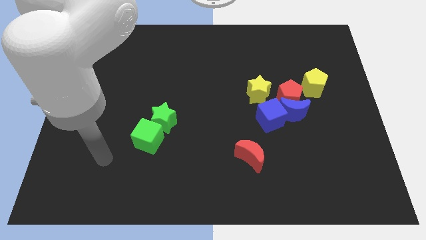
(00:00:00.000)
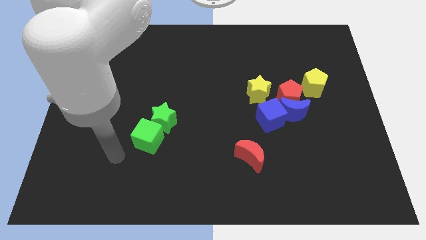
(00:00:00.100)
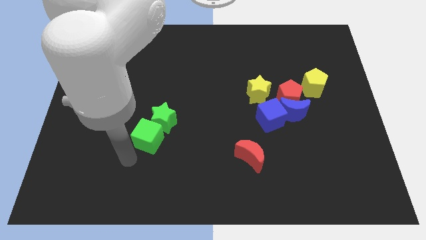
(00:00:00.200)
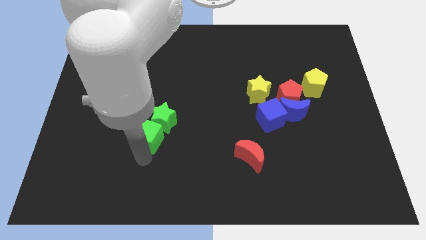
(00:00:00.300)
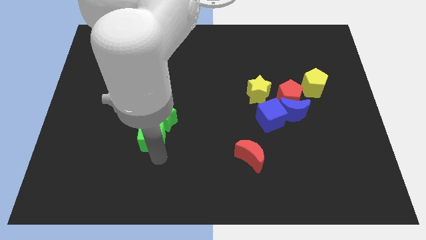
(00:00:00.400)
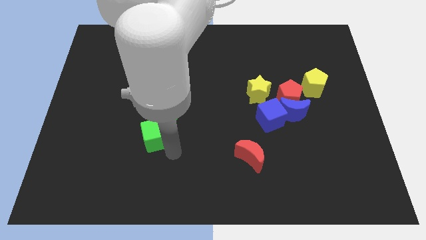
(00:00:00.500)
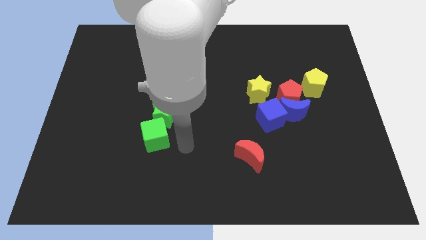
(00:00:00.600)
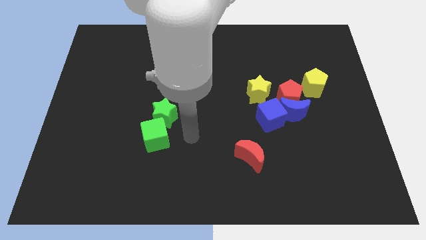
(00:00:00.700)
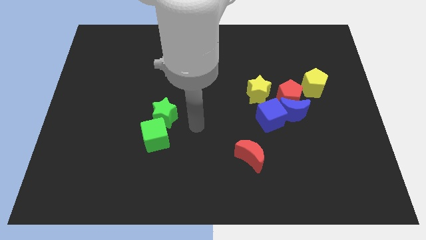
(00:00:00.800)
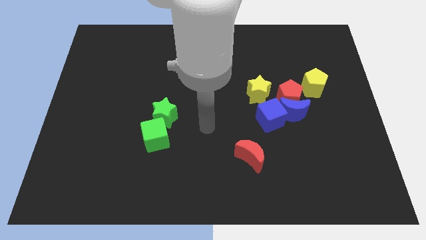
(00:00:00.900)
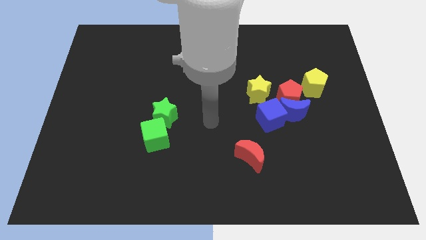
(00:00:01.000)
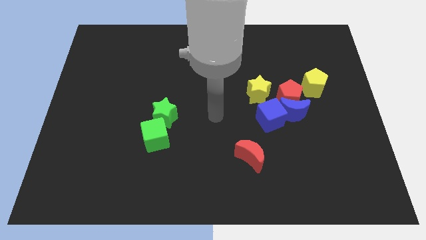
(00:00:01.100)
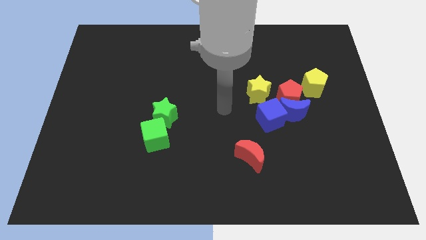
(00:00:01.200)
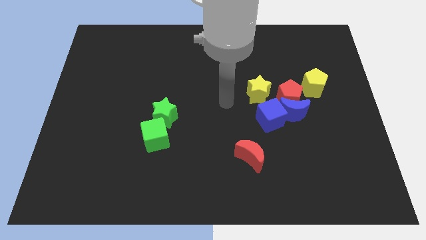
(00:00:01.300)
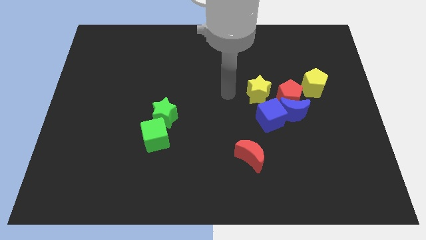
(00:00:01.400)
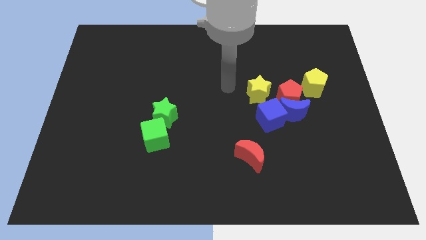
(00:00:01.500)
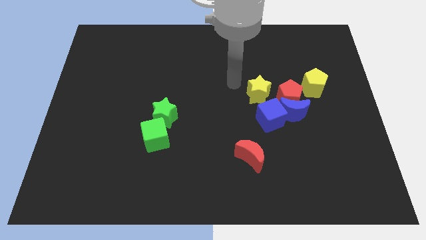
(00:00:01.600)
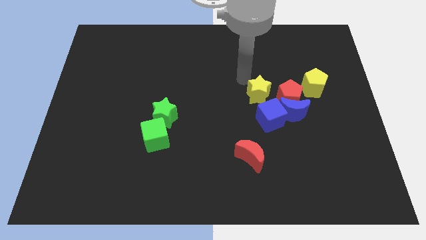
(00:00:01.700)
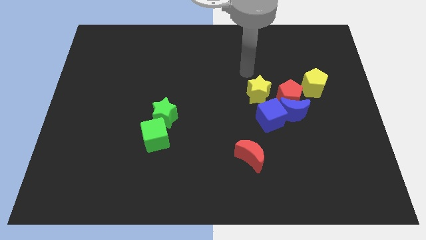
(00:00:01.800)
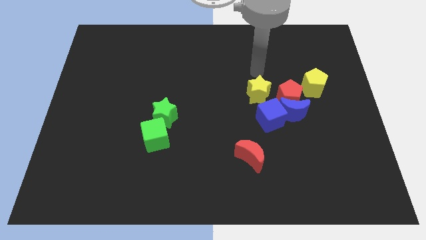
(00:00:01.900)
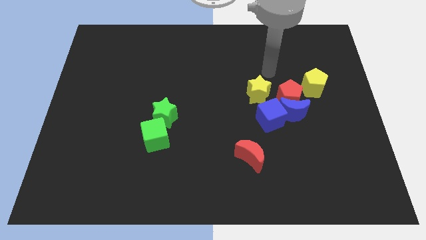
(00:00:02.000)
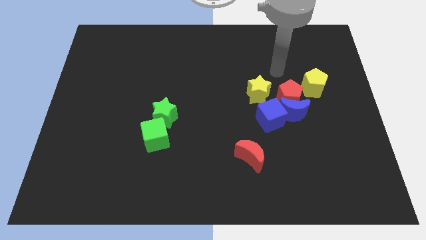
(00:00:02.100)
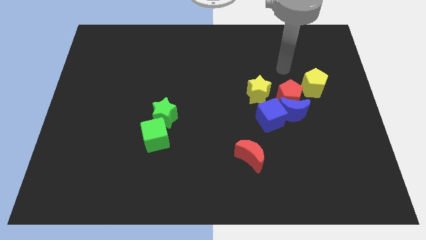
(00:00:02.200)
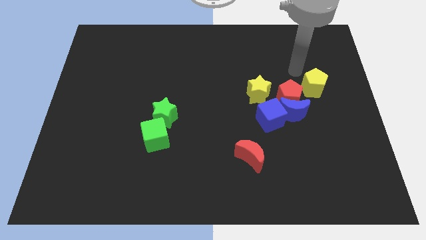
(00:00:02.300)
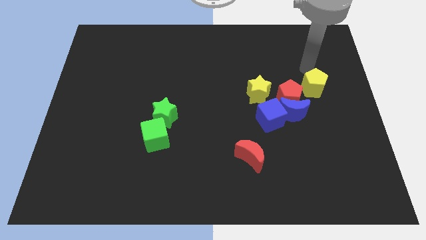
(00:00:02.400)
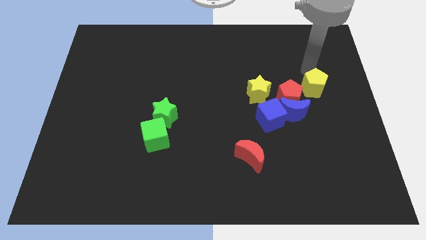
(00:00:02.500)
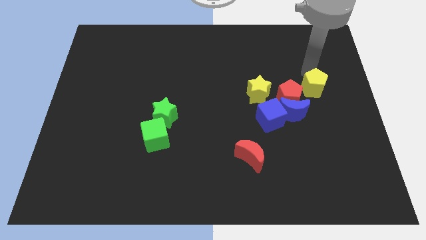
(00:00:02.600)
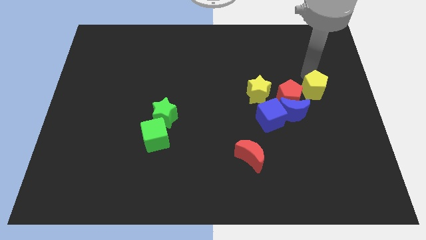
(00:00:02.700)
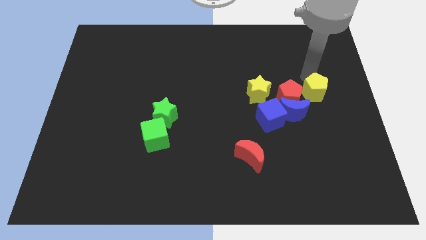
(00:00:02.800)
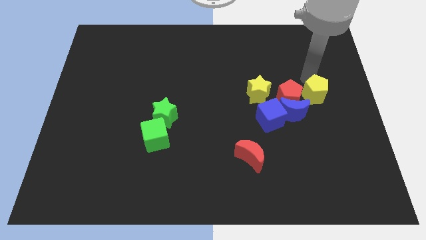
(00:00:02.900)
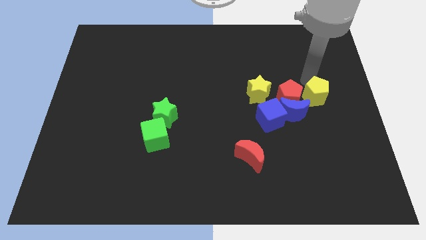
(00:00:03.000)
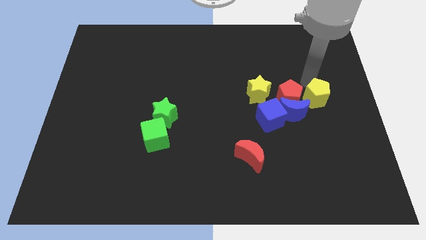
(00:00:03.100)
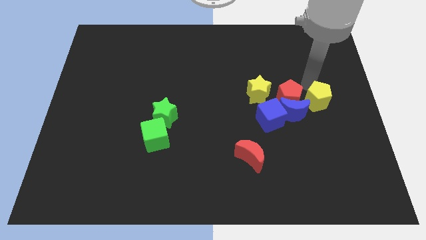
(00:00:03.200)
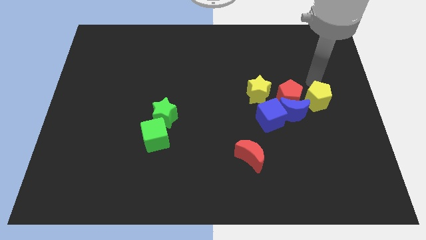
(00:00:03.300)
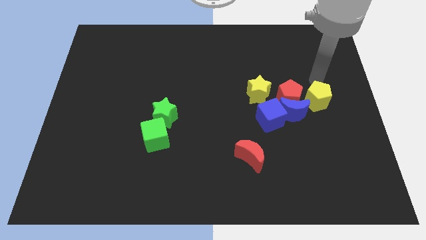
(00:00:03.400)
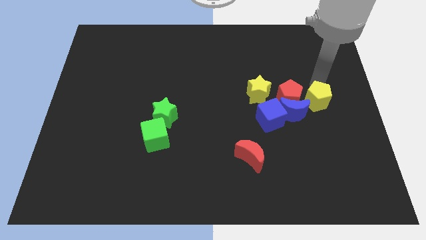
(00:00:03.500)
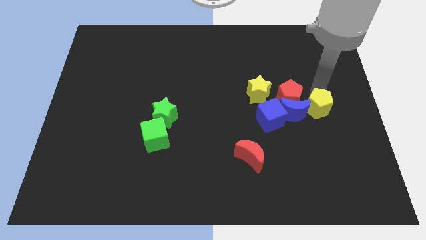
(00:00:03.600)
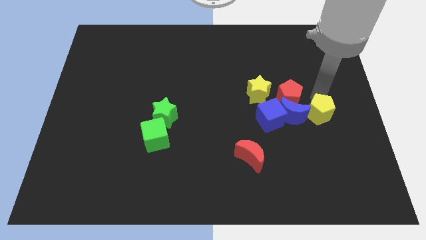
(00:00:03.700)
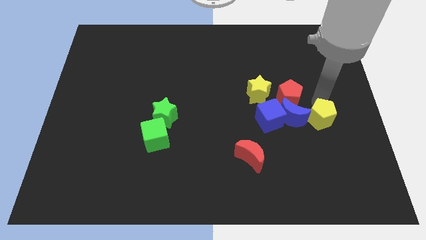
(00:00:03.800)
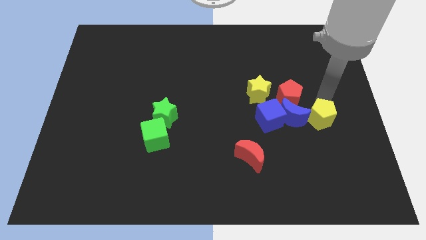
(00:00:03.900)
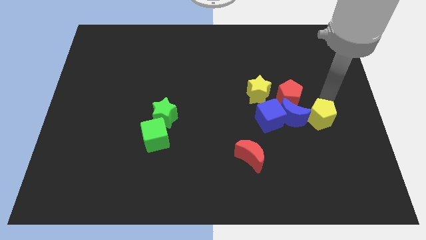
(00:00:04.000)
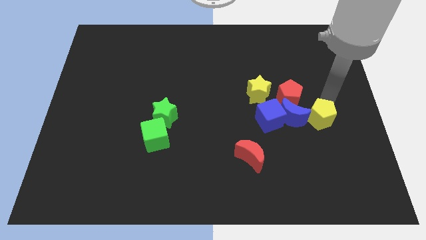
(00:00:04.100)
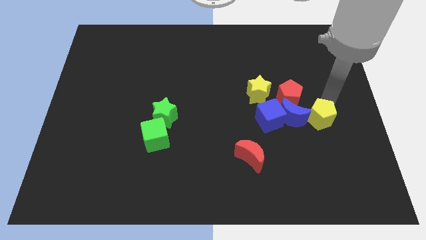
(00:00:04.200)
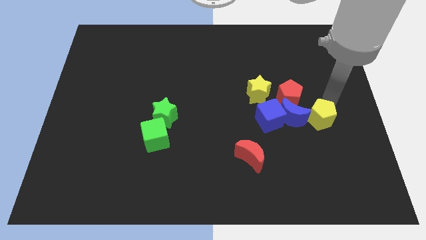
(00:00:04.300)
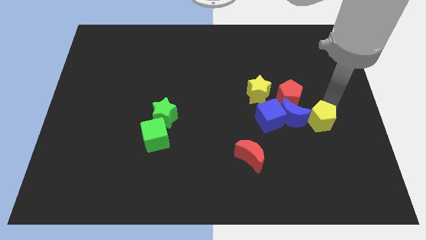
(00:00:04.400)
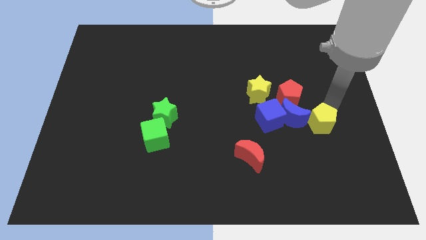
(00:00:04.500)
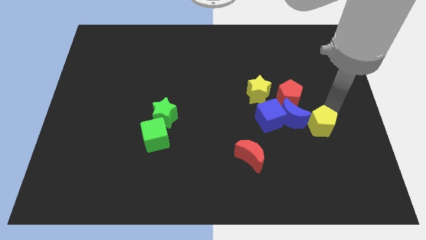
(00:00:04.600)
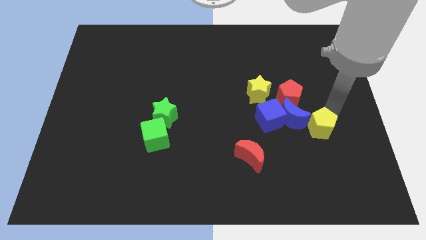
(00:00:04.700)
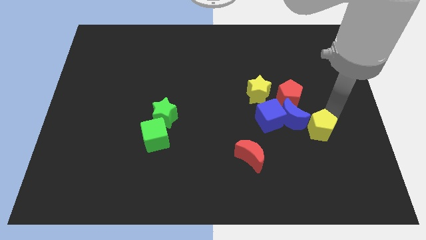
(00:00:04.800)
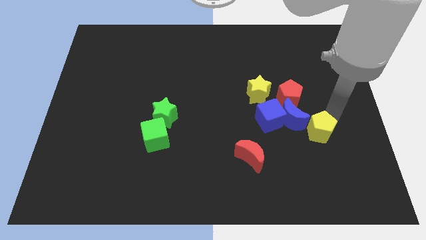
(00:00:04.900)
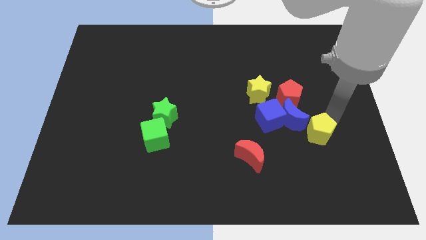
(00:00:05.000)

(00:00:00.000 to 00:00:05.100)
move the yellow pentagon a little bit diagonally downwards and left

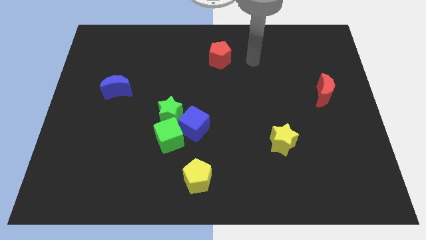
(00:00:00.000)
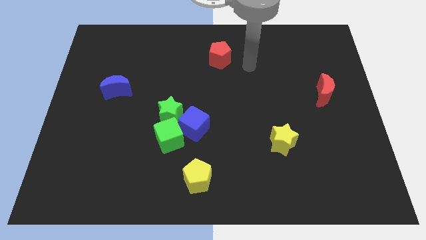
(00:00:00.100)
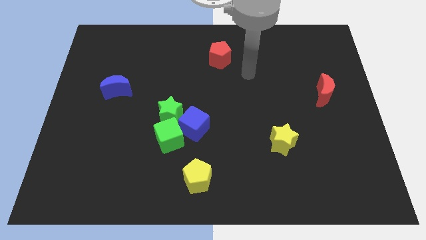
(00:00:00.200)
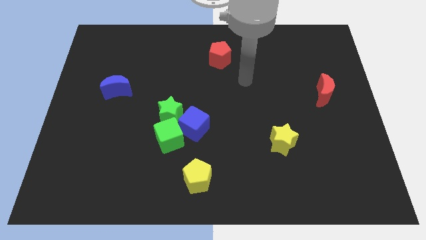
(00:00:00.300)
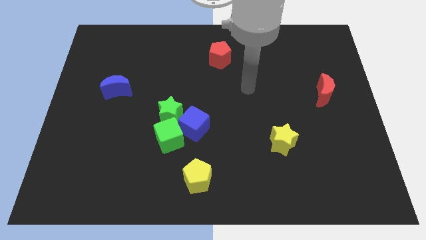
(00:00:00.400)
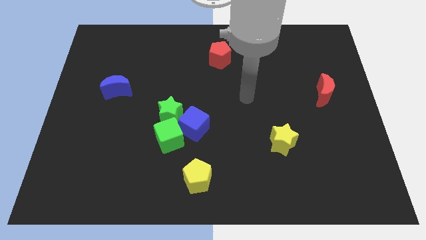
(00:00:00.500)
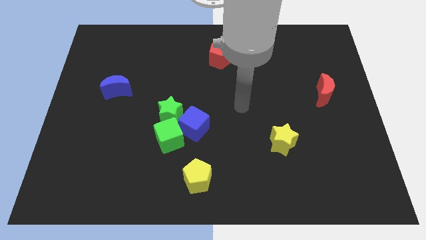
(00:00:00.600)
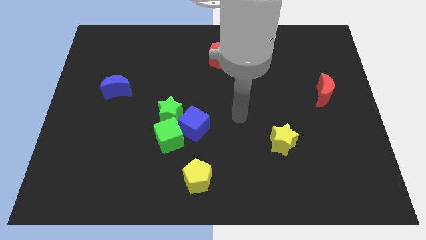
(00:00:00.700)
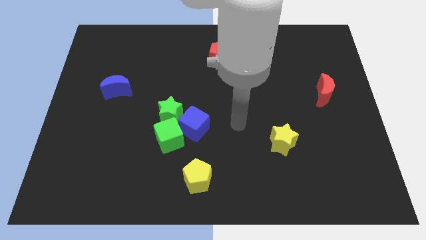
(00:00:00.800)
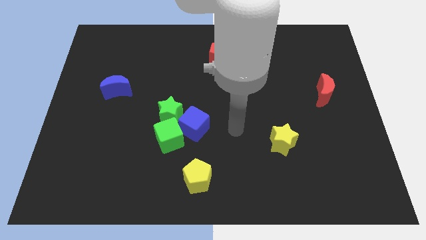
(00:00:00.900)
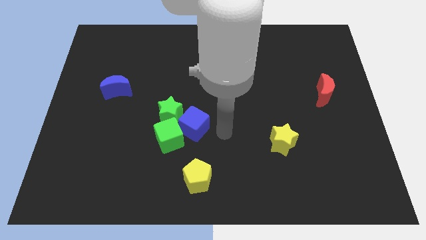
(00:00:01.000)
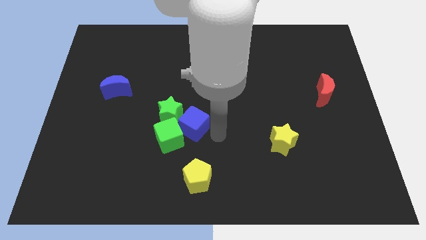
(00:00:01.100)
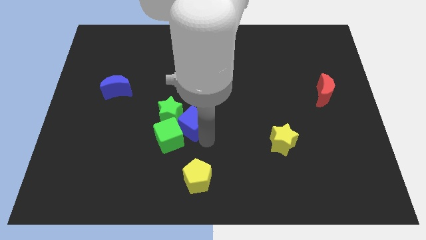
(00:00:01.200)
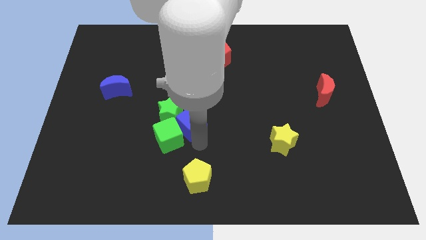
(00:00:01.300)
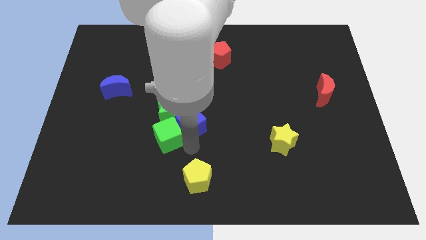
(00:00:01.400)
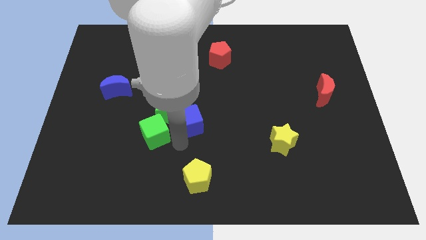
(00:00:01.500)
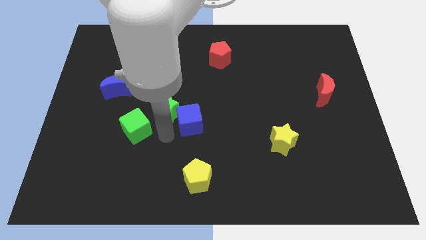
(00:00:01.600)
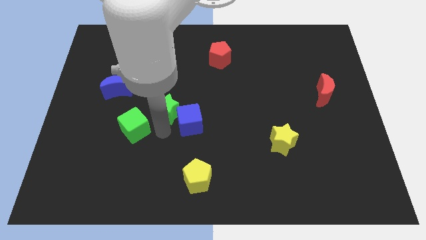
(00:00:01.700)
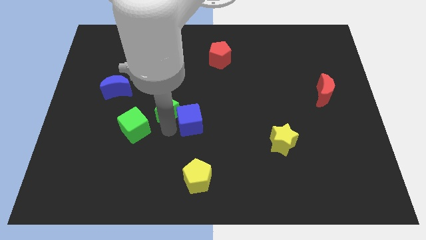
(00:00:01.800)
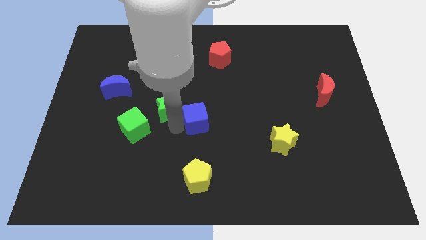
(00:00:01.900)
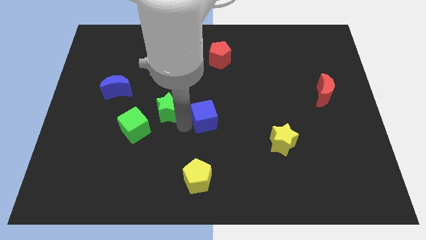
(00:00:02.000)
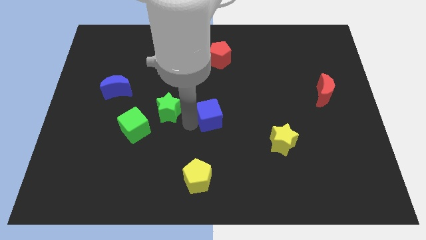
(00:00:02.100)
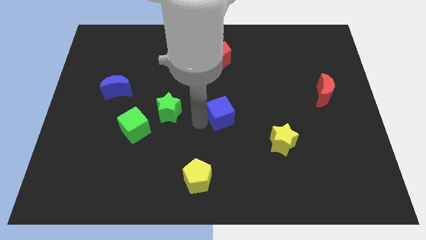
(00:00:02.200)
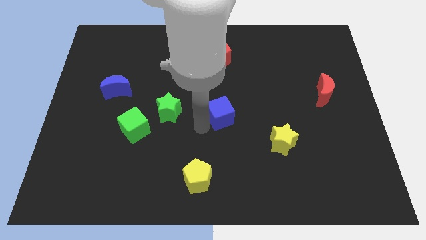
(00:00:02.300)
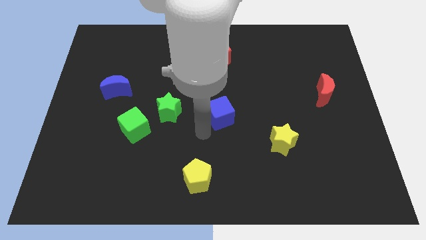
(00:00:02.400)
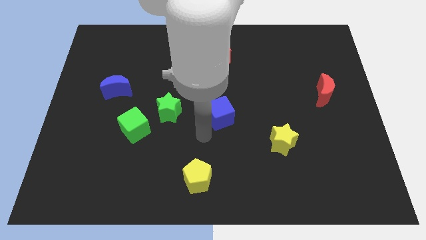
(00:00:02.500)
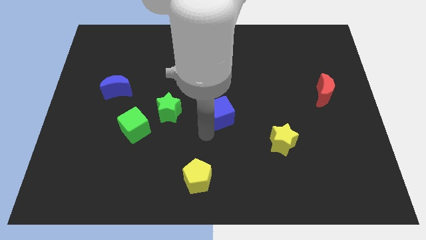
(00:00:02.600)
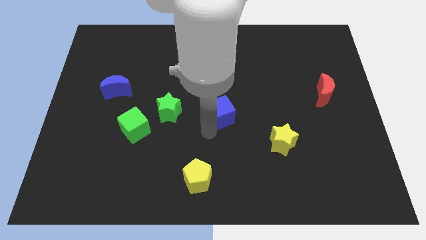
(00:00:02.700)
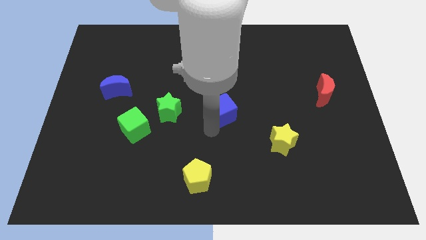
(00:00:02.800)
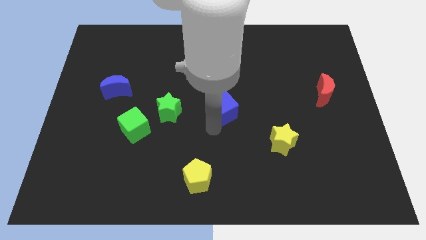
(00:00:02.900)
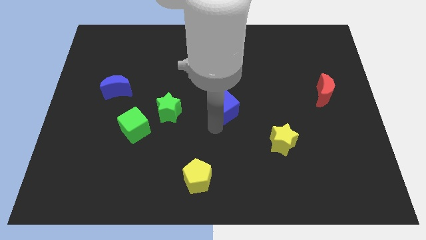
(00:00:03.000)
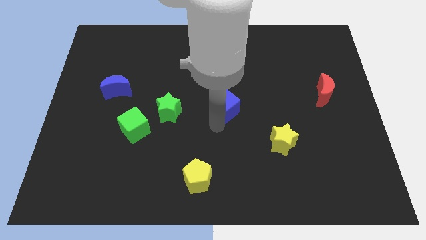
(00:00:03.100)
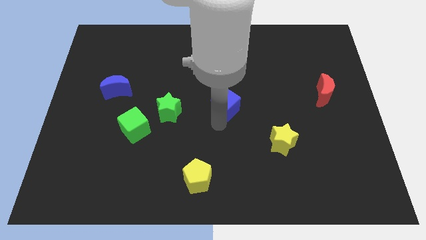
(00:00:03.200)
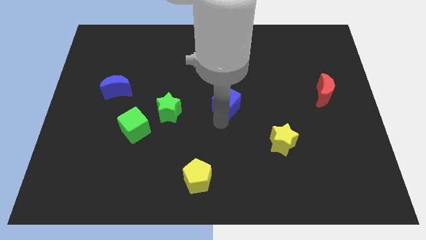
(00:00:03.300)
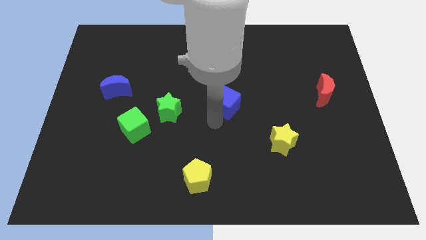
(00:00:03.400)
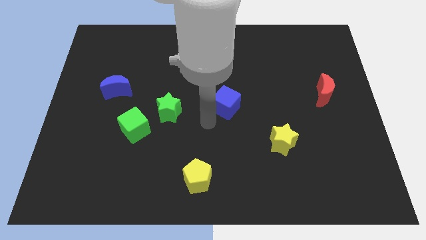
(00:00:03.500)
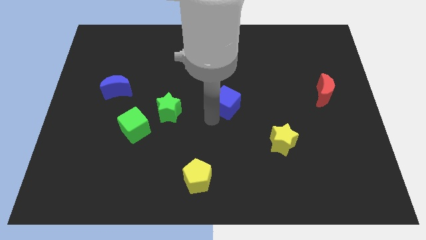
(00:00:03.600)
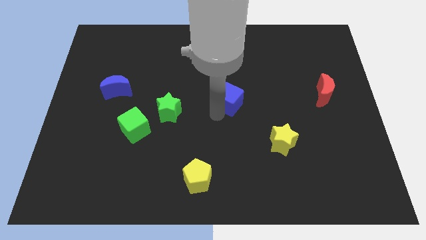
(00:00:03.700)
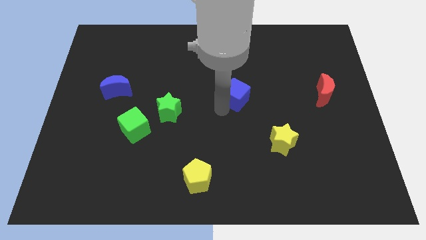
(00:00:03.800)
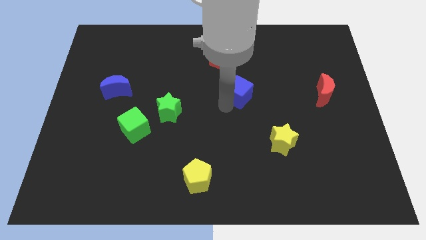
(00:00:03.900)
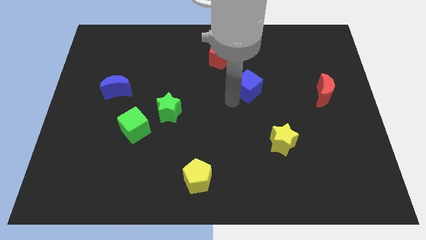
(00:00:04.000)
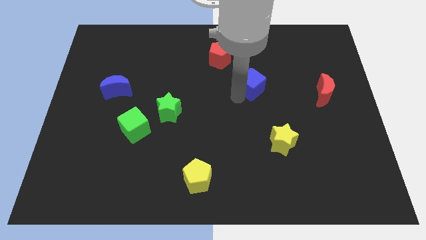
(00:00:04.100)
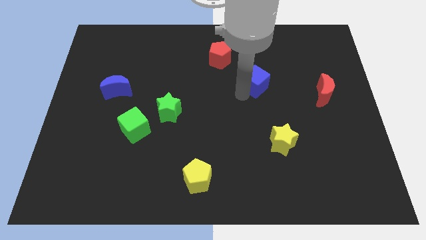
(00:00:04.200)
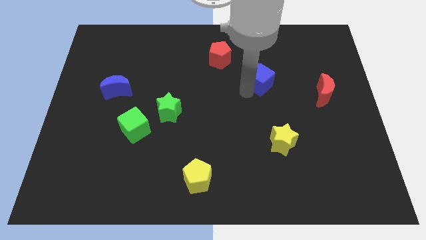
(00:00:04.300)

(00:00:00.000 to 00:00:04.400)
push the blue cube upwards and then to the right
